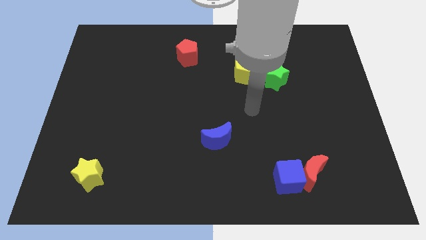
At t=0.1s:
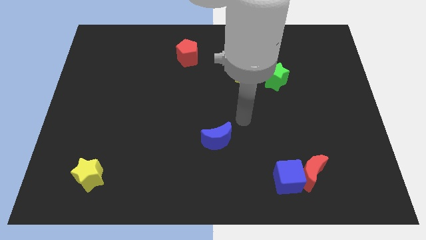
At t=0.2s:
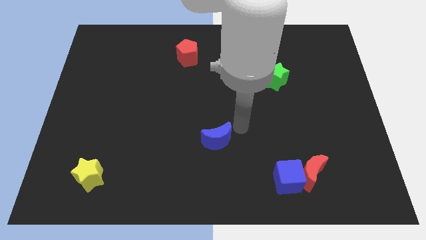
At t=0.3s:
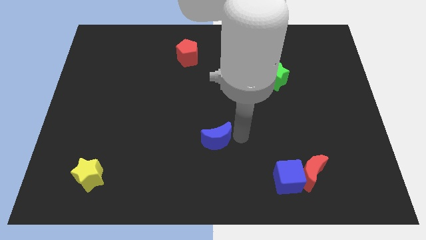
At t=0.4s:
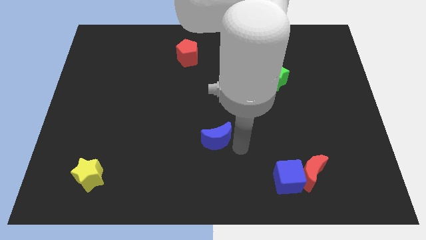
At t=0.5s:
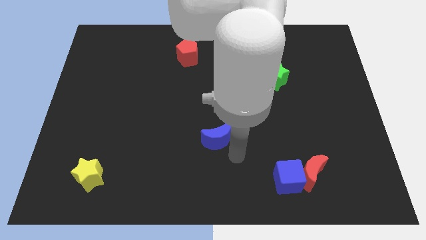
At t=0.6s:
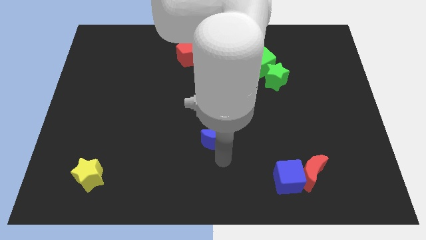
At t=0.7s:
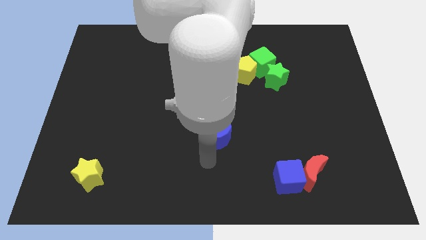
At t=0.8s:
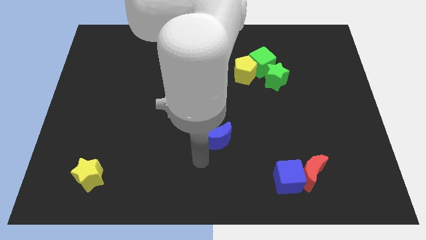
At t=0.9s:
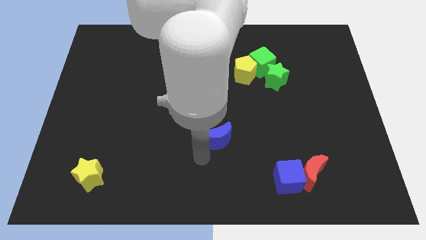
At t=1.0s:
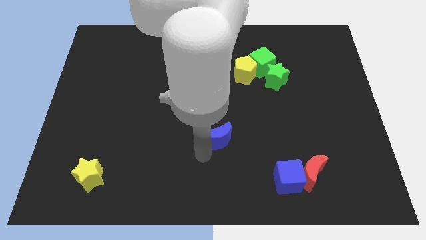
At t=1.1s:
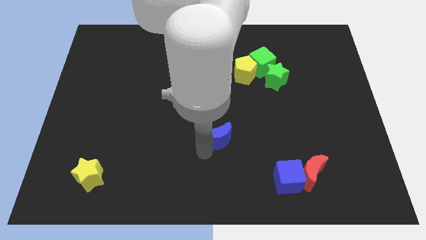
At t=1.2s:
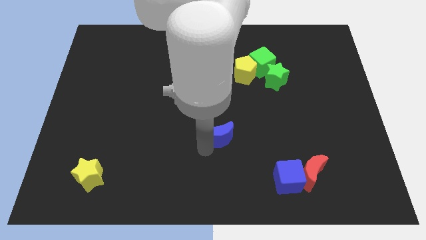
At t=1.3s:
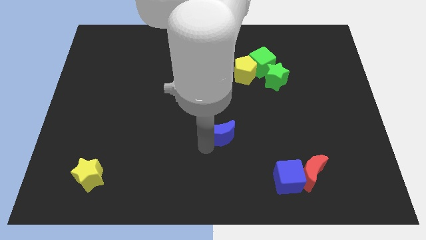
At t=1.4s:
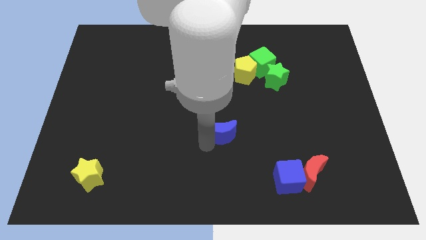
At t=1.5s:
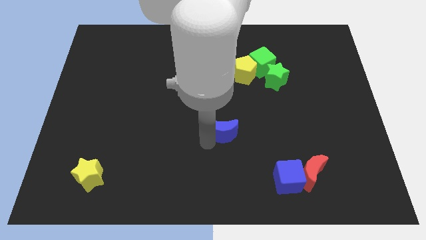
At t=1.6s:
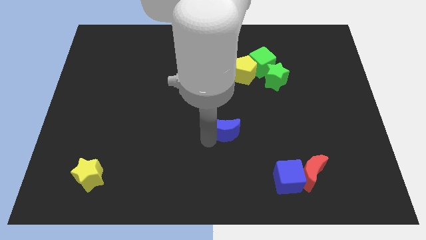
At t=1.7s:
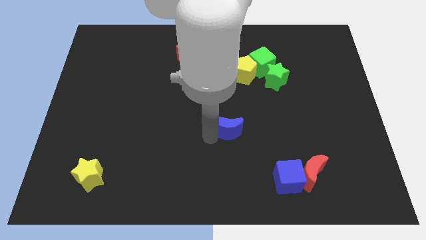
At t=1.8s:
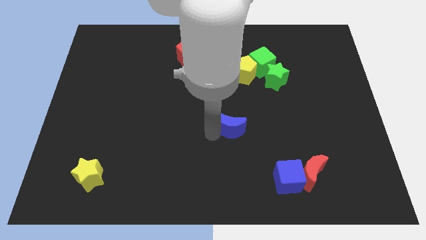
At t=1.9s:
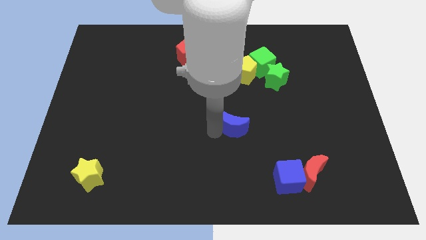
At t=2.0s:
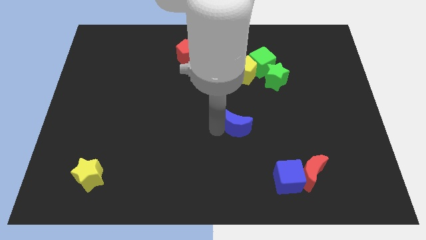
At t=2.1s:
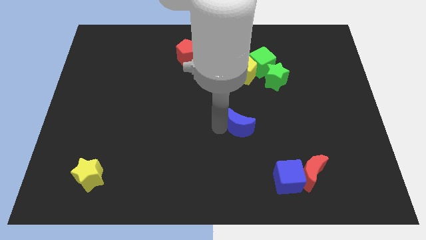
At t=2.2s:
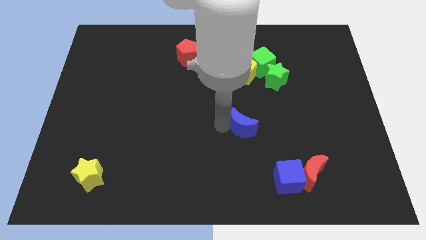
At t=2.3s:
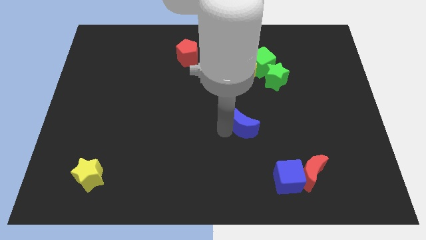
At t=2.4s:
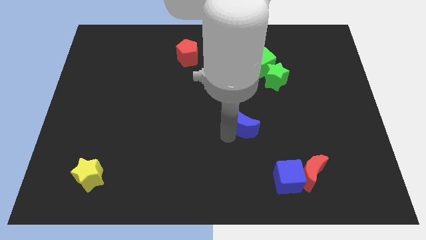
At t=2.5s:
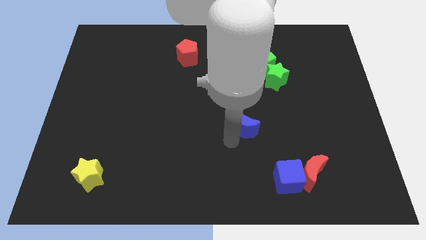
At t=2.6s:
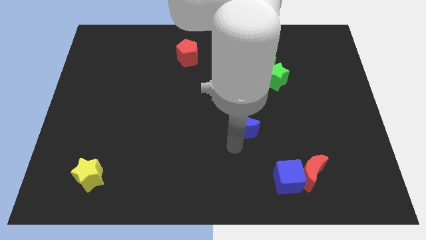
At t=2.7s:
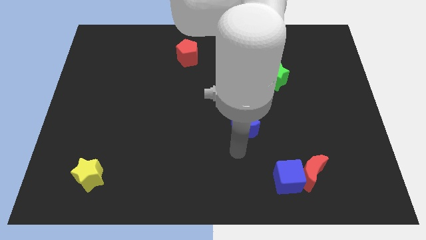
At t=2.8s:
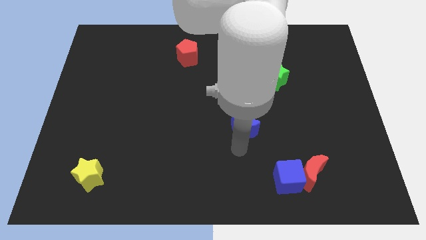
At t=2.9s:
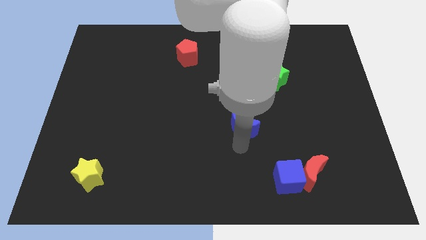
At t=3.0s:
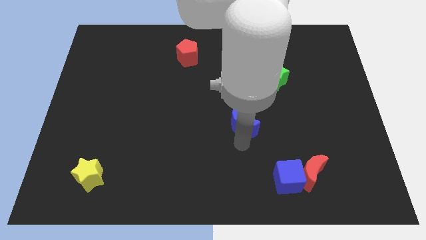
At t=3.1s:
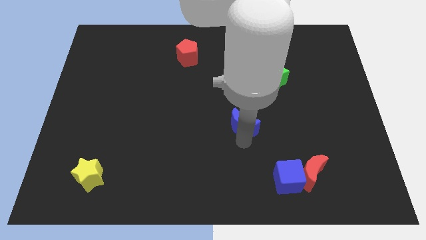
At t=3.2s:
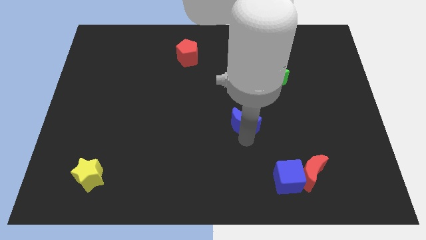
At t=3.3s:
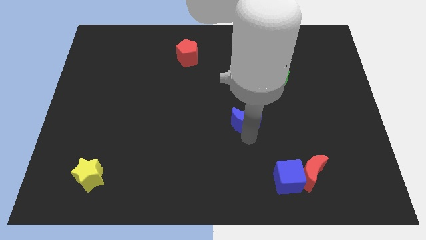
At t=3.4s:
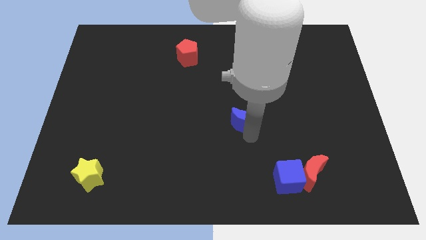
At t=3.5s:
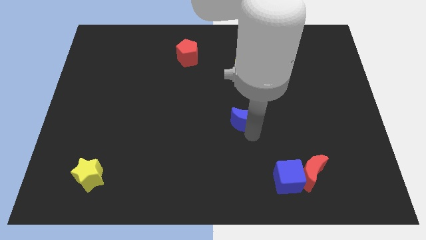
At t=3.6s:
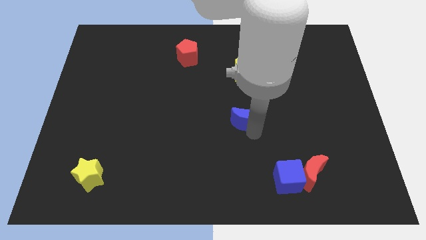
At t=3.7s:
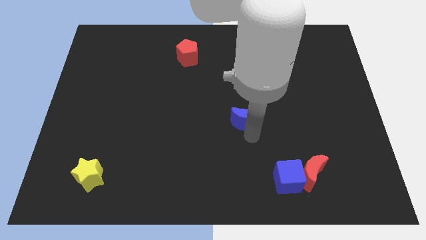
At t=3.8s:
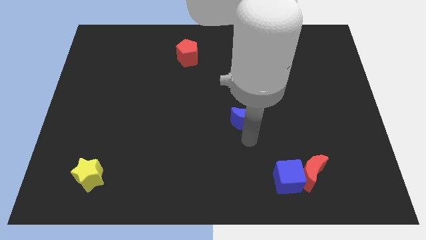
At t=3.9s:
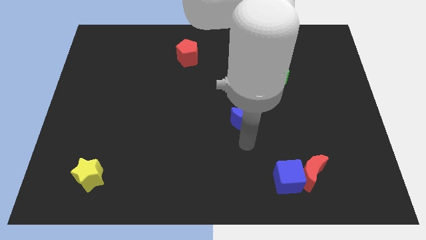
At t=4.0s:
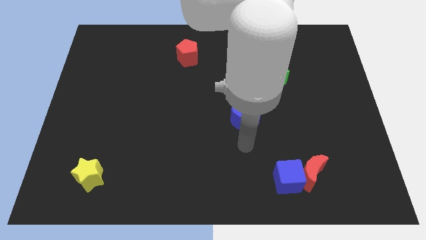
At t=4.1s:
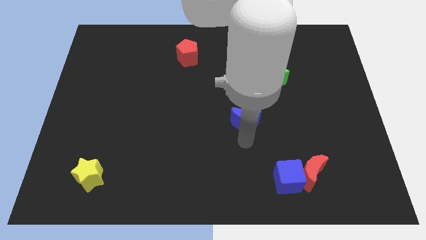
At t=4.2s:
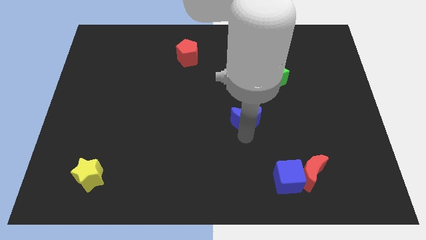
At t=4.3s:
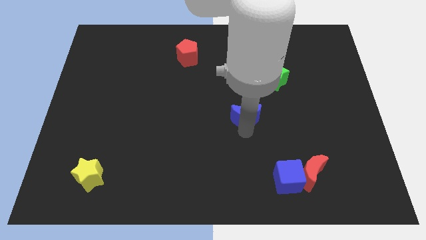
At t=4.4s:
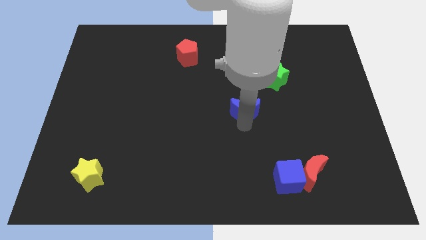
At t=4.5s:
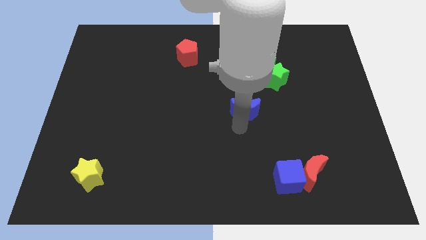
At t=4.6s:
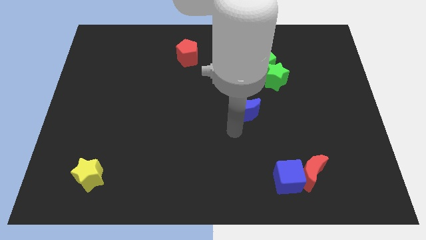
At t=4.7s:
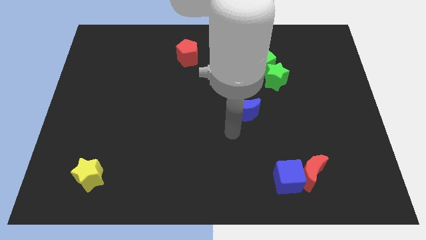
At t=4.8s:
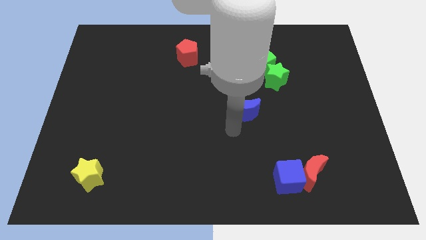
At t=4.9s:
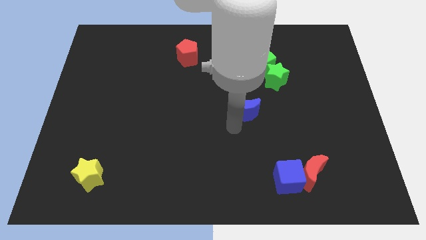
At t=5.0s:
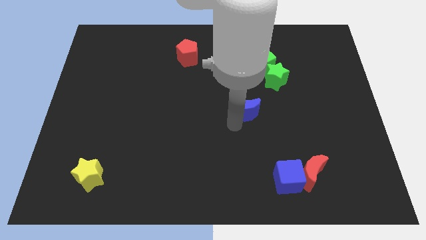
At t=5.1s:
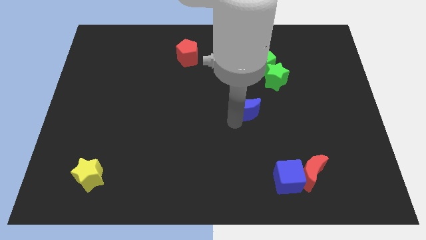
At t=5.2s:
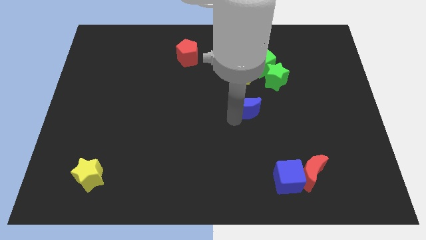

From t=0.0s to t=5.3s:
slide the blue moon to the bottom left side of the green star

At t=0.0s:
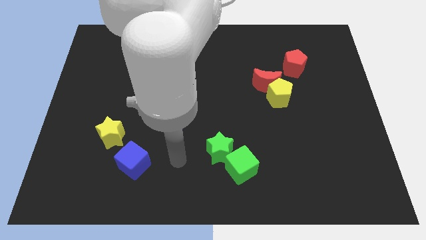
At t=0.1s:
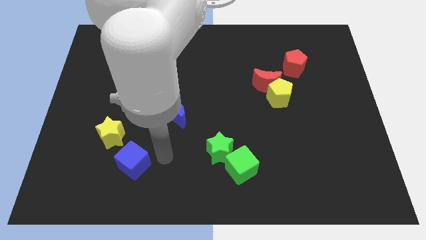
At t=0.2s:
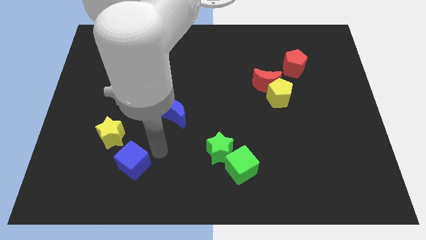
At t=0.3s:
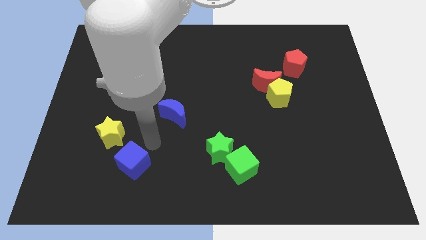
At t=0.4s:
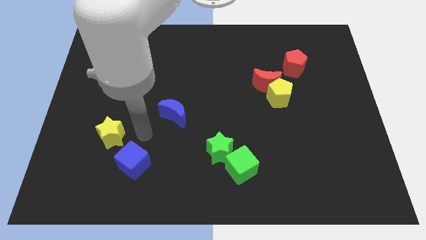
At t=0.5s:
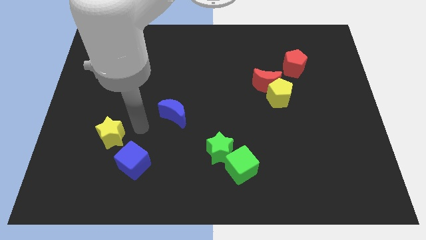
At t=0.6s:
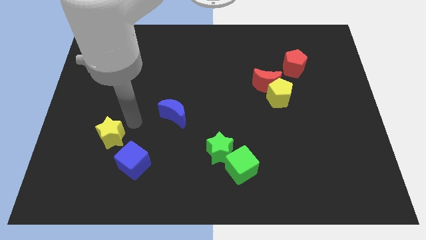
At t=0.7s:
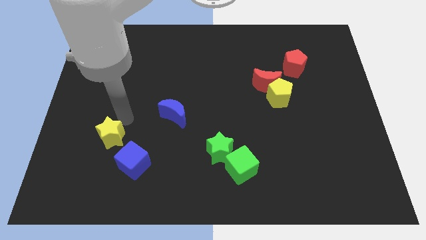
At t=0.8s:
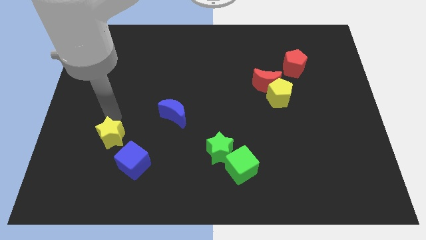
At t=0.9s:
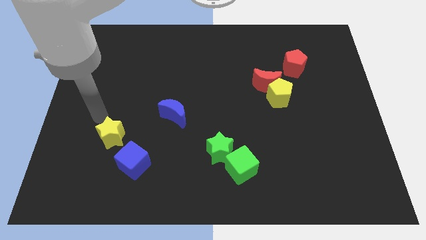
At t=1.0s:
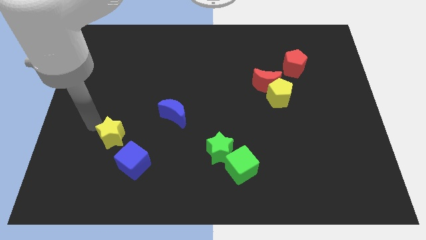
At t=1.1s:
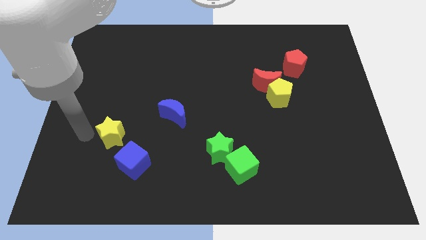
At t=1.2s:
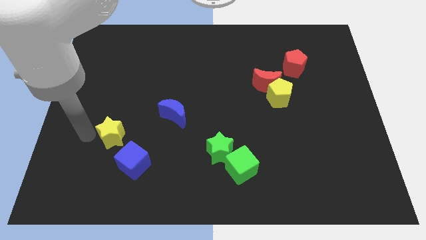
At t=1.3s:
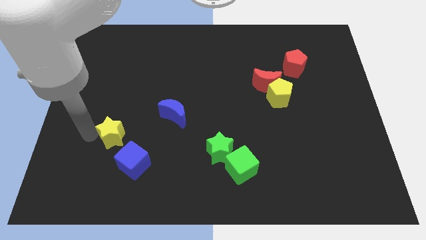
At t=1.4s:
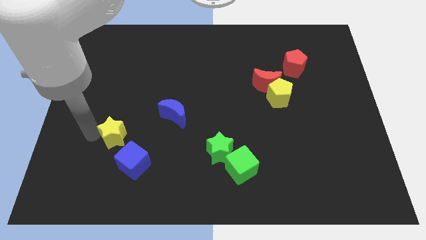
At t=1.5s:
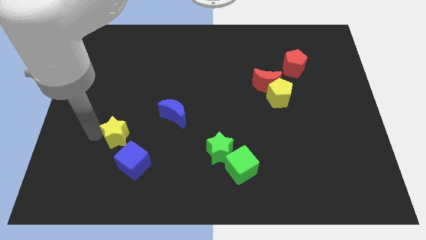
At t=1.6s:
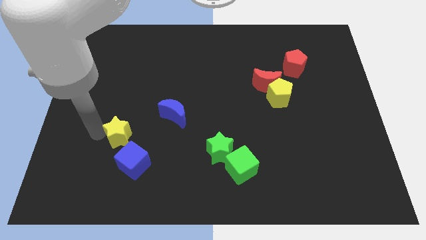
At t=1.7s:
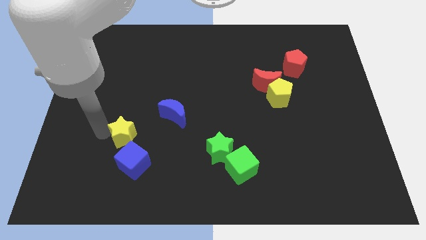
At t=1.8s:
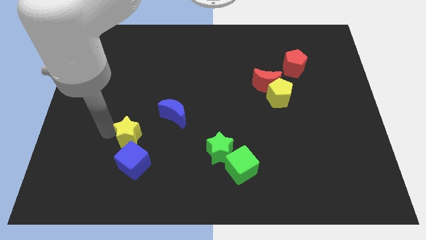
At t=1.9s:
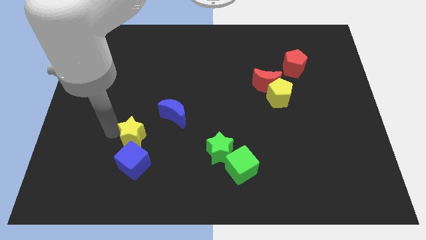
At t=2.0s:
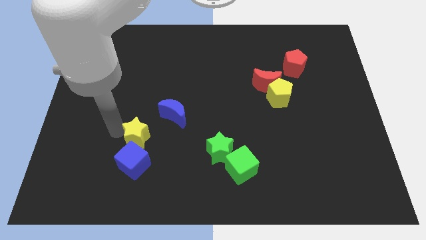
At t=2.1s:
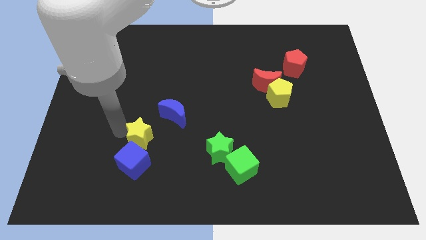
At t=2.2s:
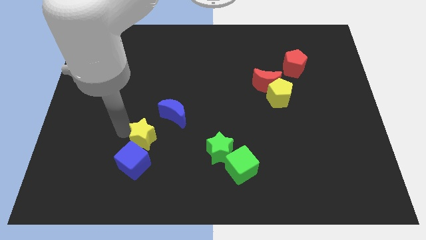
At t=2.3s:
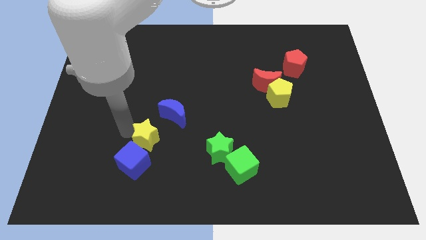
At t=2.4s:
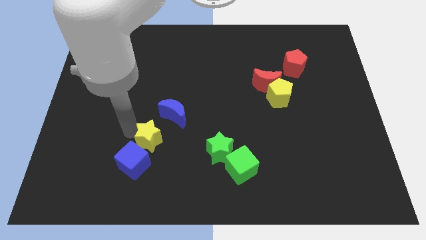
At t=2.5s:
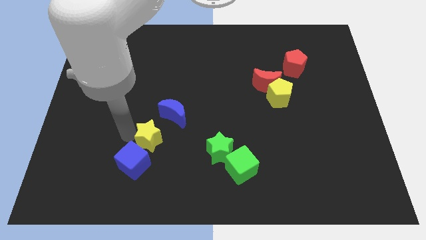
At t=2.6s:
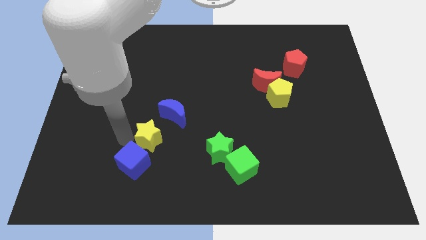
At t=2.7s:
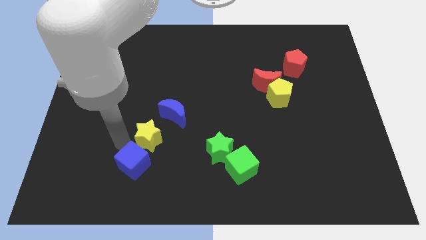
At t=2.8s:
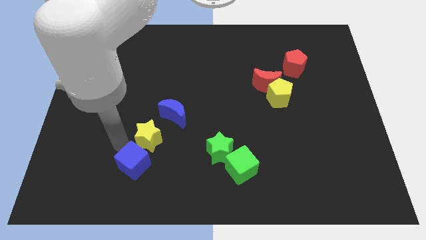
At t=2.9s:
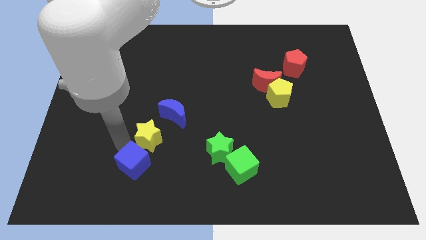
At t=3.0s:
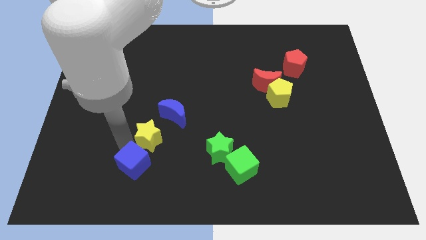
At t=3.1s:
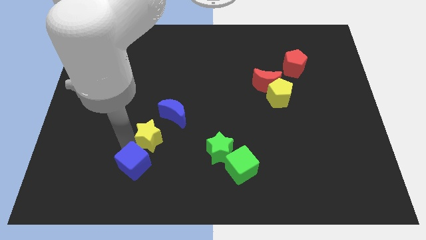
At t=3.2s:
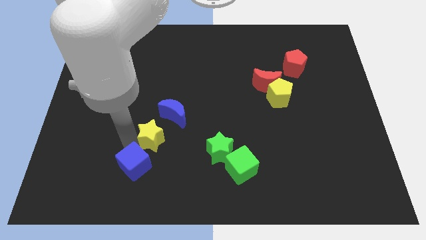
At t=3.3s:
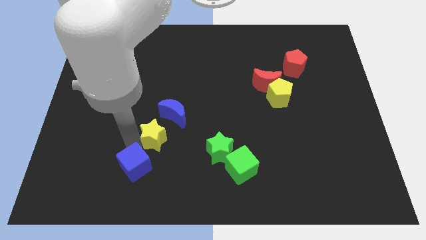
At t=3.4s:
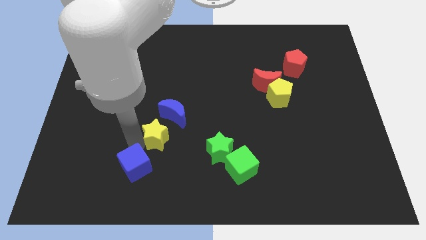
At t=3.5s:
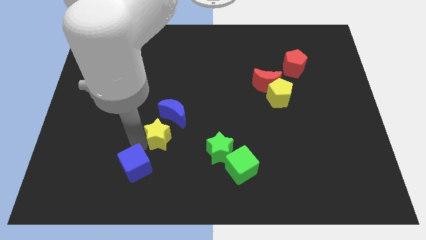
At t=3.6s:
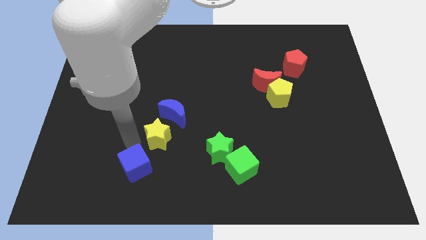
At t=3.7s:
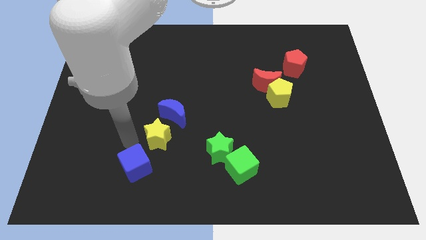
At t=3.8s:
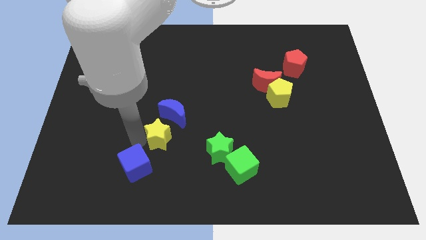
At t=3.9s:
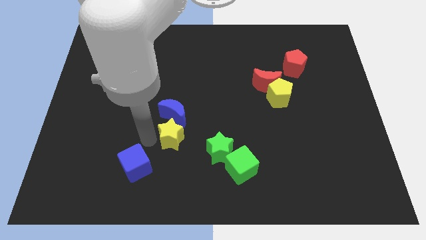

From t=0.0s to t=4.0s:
slide the yellow star to the bottom right of the blue moon
